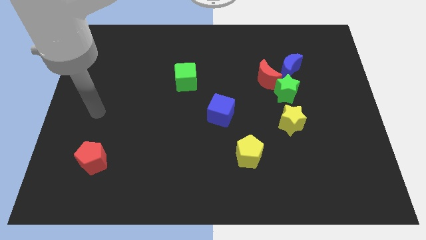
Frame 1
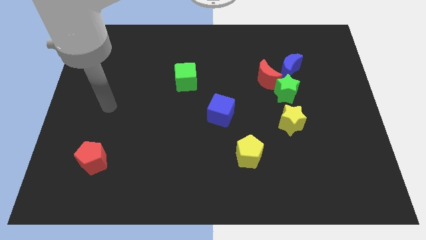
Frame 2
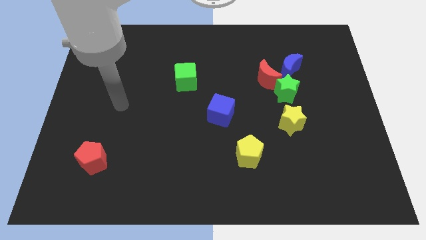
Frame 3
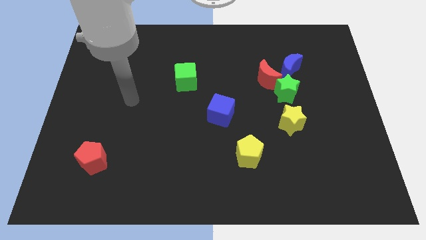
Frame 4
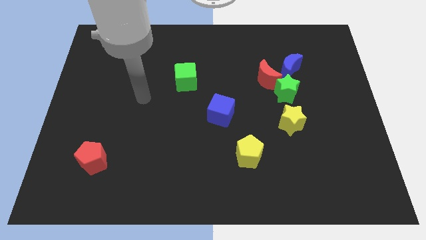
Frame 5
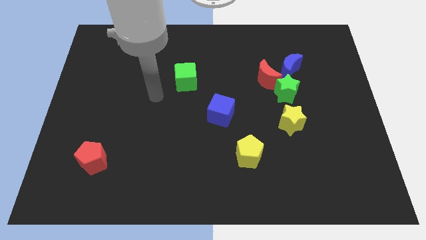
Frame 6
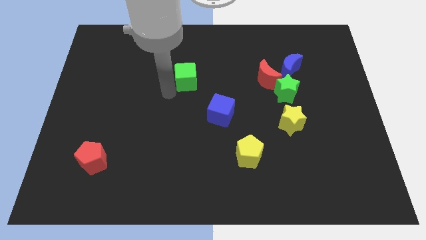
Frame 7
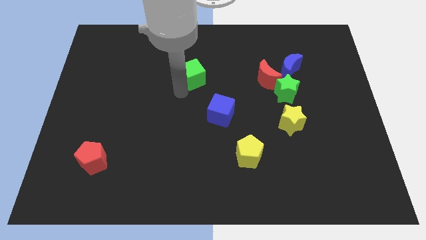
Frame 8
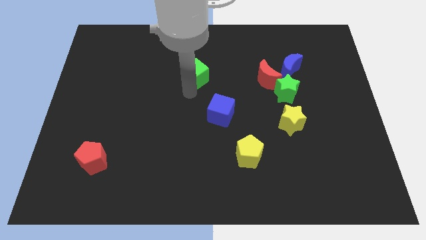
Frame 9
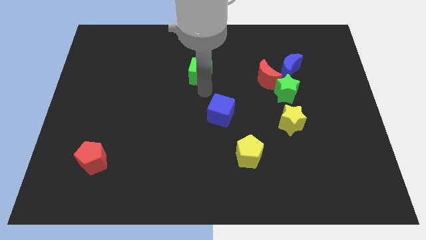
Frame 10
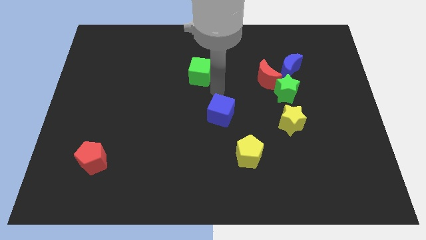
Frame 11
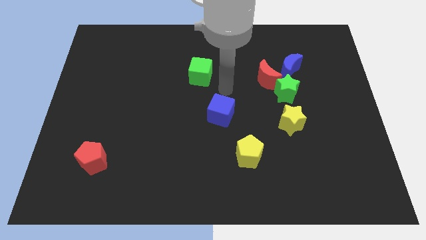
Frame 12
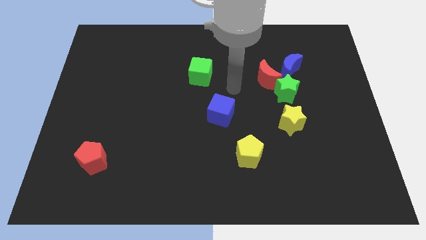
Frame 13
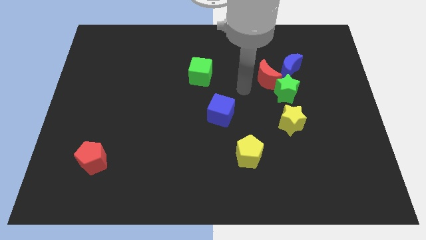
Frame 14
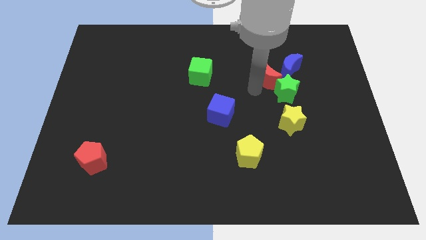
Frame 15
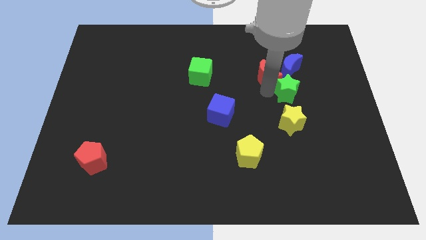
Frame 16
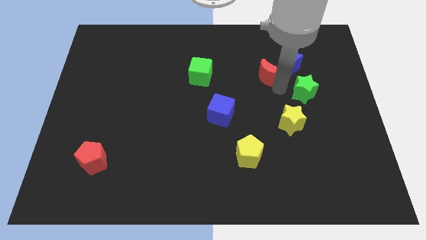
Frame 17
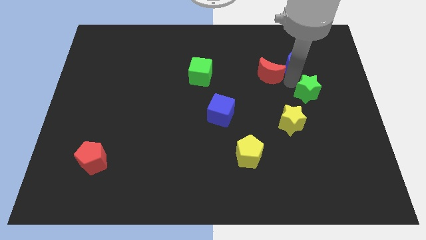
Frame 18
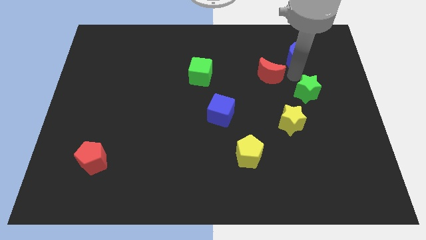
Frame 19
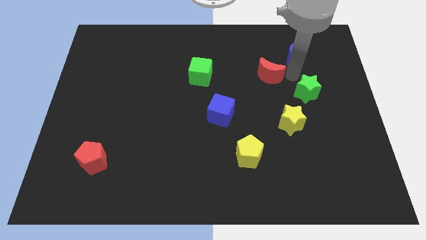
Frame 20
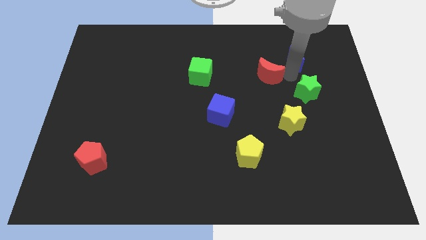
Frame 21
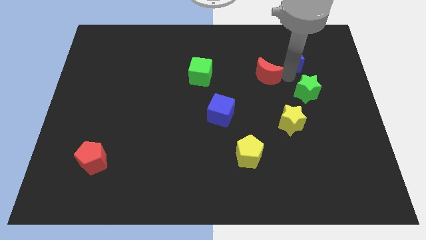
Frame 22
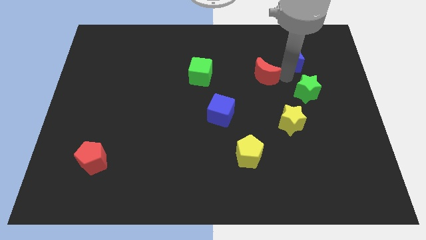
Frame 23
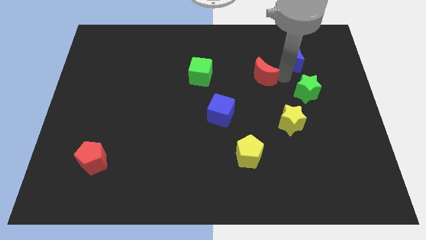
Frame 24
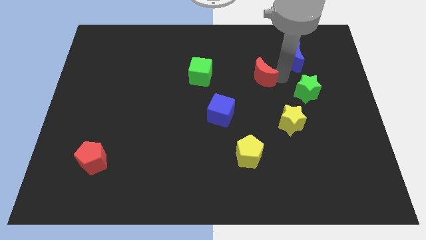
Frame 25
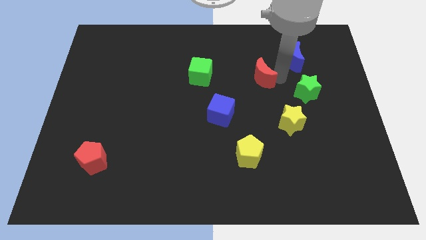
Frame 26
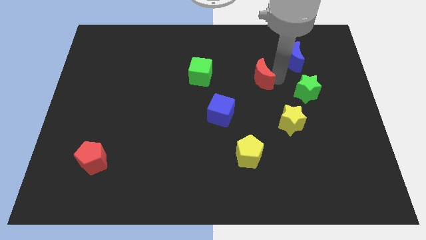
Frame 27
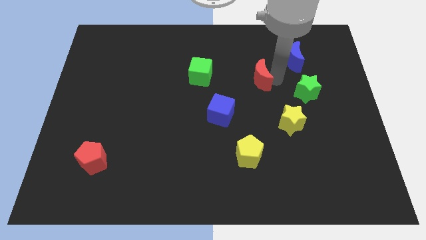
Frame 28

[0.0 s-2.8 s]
pull the red moon apart from the green star and blue moon

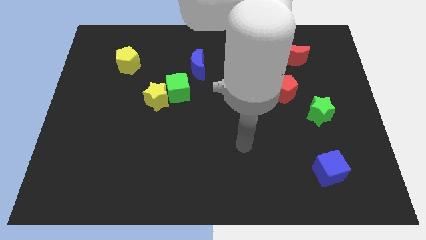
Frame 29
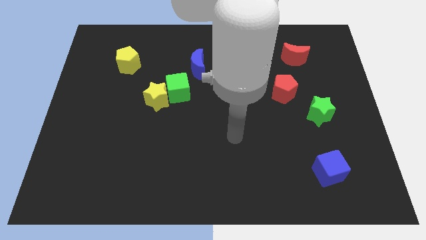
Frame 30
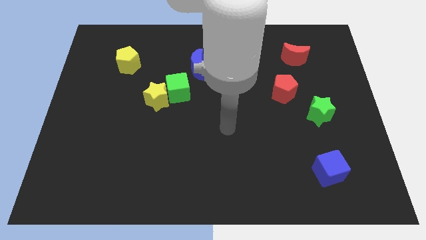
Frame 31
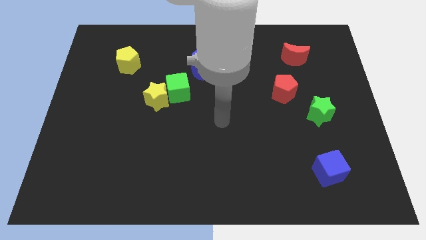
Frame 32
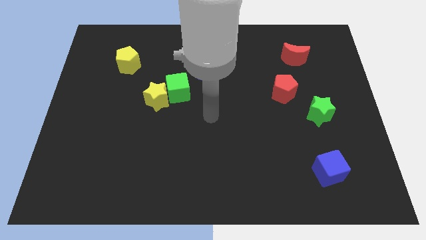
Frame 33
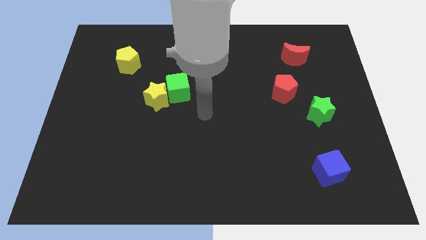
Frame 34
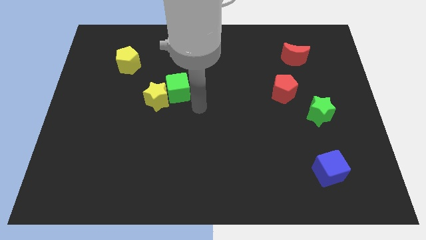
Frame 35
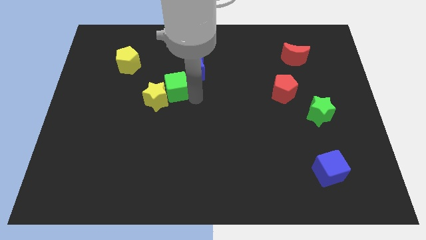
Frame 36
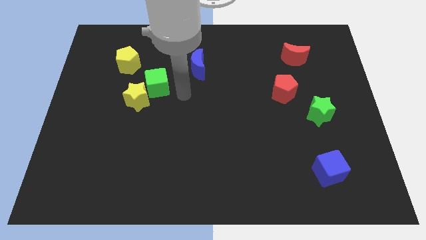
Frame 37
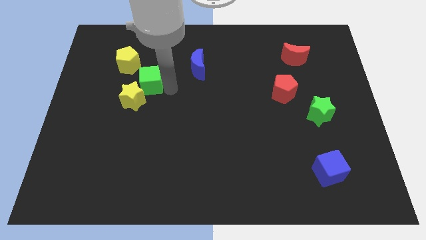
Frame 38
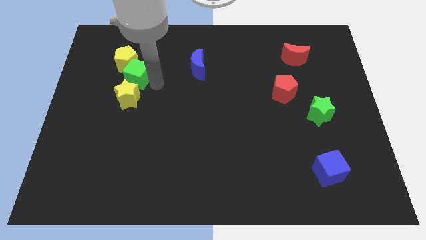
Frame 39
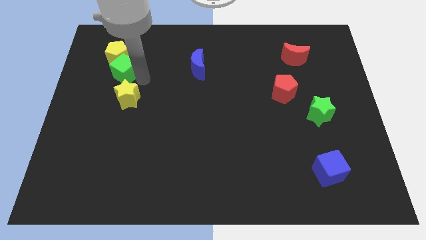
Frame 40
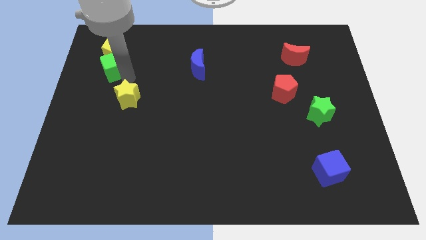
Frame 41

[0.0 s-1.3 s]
separate the yellow star from the green cube

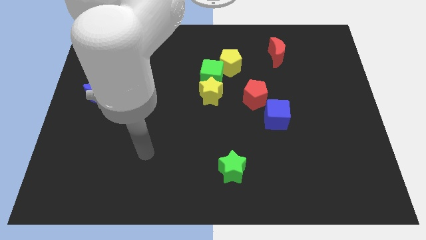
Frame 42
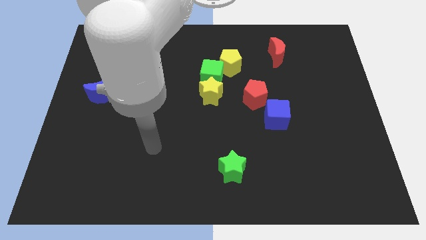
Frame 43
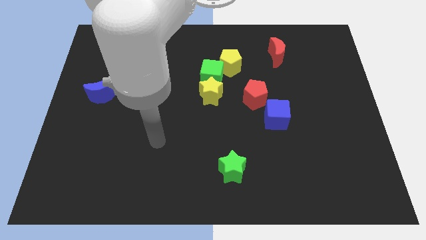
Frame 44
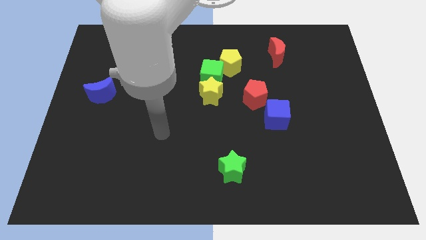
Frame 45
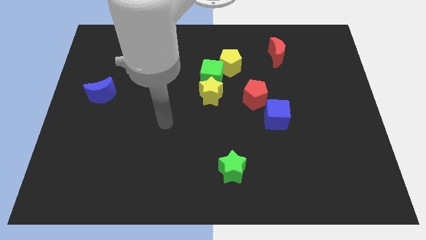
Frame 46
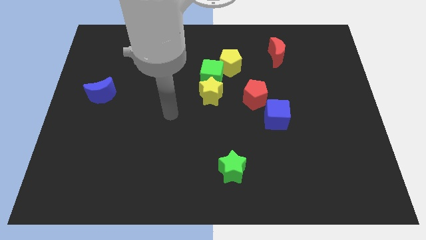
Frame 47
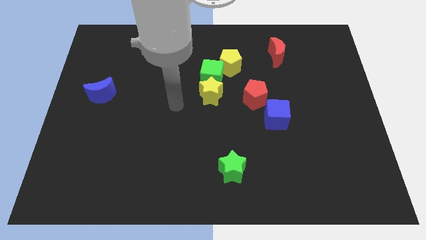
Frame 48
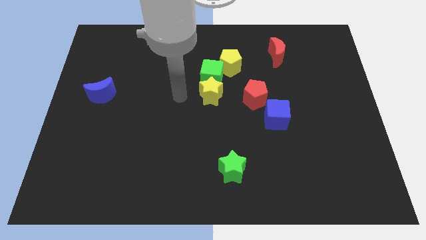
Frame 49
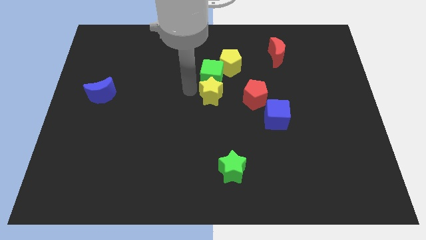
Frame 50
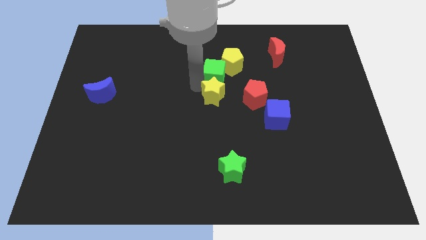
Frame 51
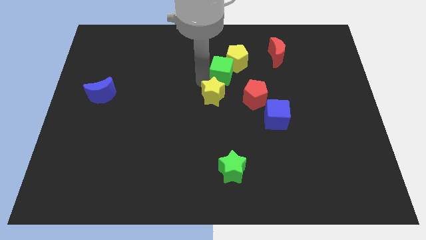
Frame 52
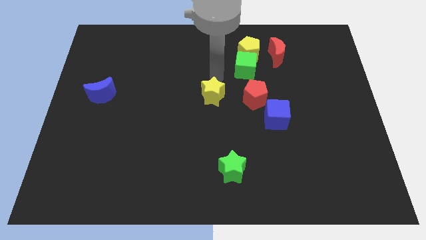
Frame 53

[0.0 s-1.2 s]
move the yellow star away from the green cube

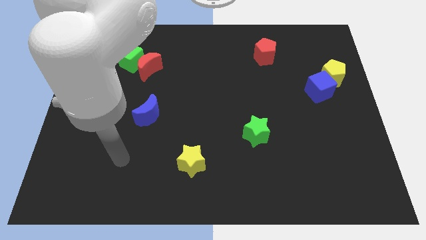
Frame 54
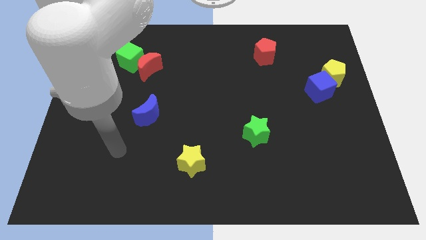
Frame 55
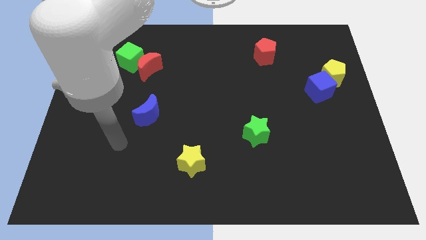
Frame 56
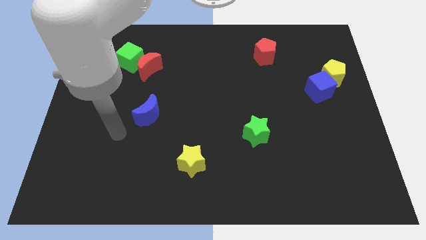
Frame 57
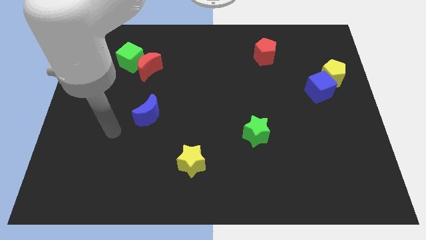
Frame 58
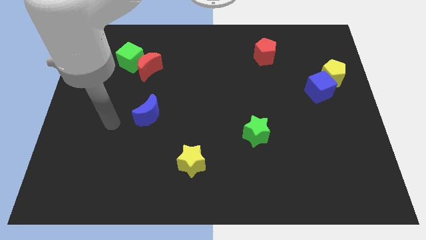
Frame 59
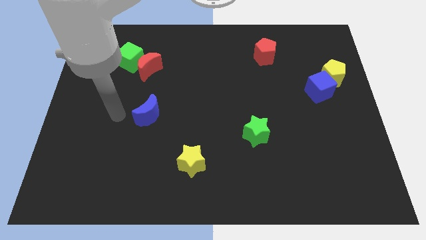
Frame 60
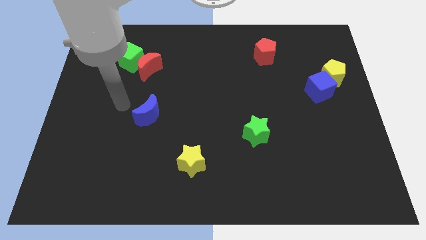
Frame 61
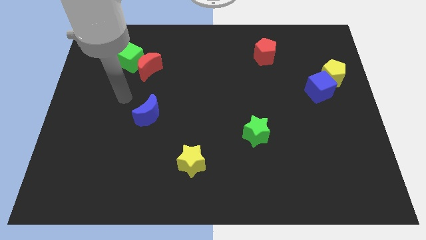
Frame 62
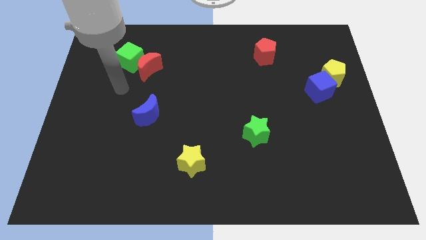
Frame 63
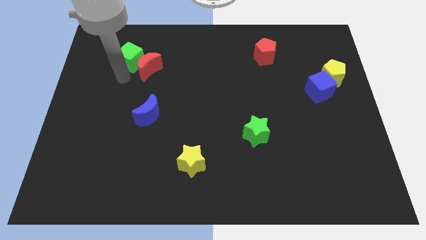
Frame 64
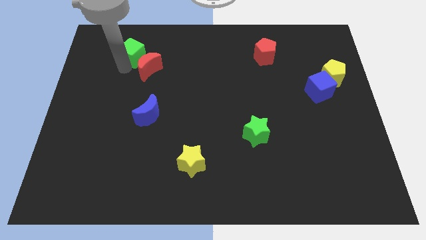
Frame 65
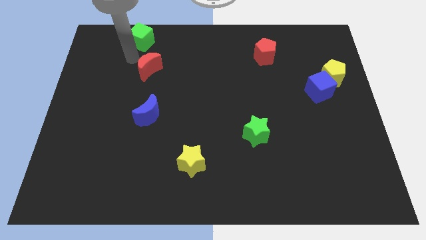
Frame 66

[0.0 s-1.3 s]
move the red moon away from the green cube

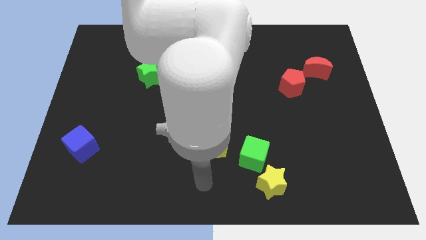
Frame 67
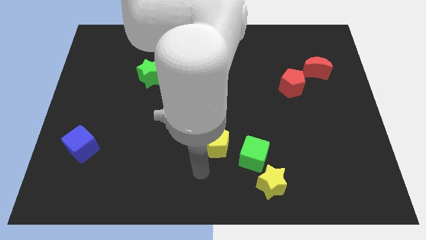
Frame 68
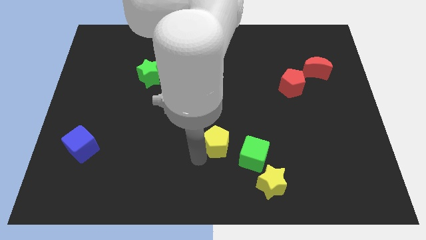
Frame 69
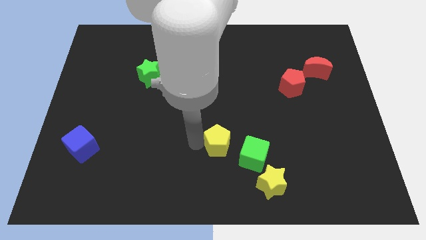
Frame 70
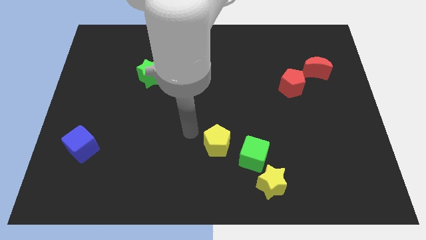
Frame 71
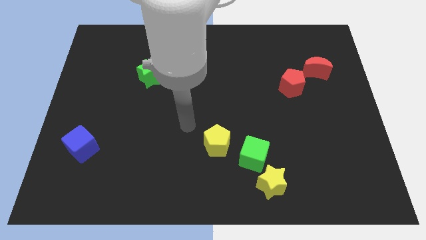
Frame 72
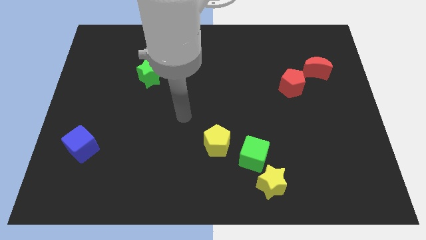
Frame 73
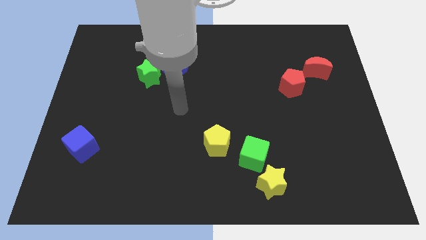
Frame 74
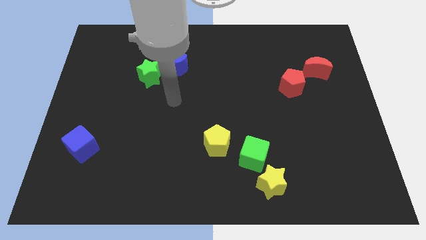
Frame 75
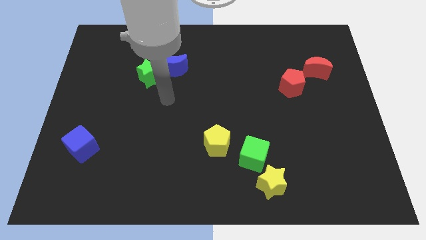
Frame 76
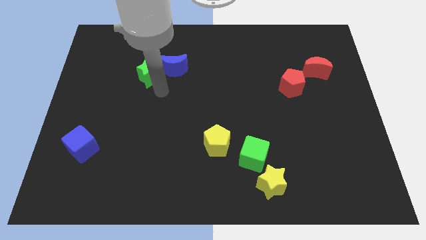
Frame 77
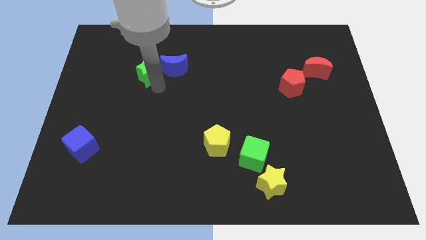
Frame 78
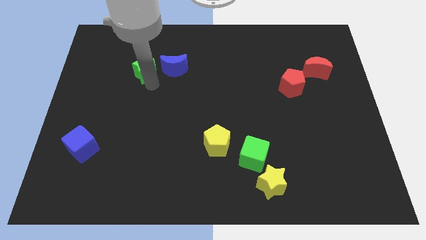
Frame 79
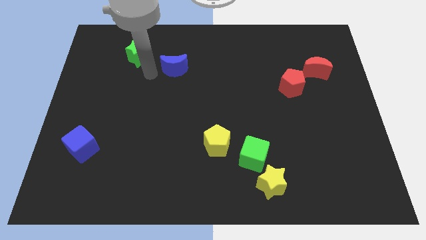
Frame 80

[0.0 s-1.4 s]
separate the blue moon from the green star

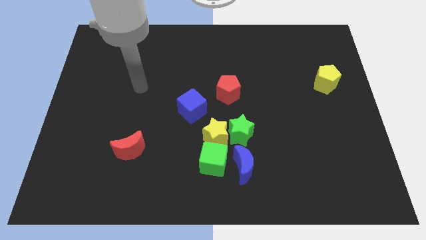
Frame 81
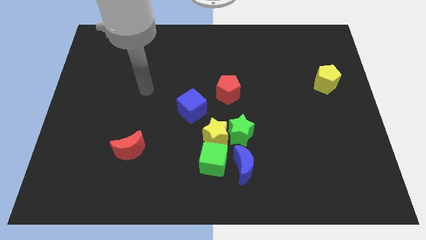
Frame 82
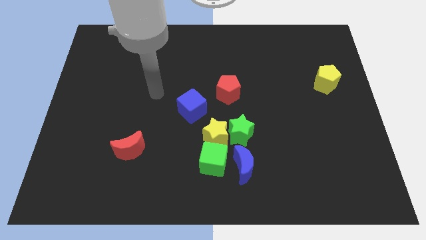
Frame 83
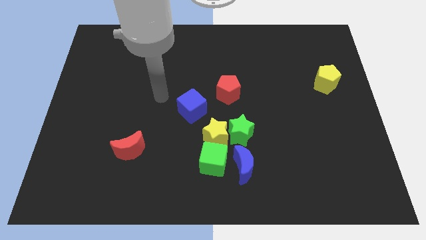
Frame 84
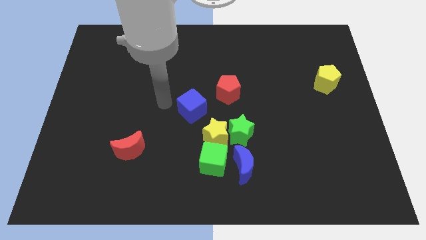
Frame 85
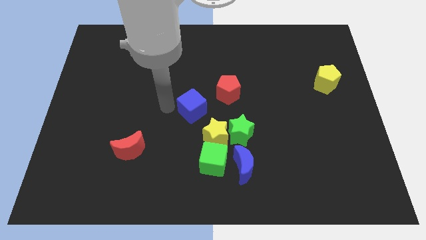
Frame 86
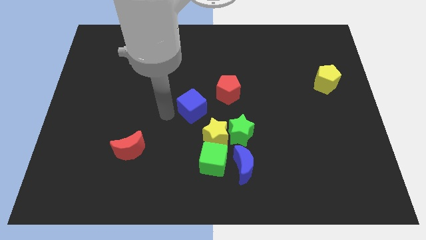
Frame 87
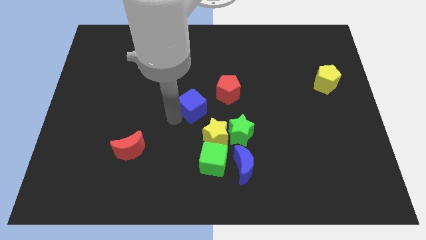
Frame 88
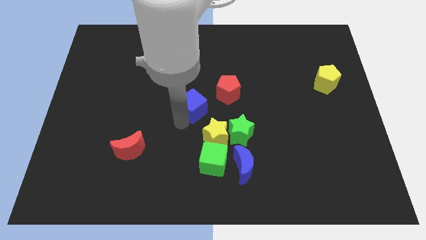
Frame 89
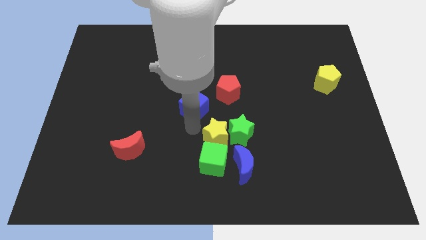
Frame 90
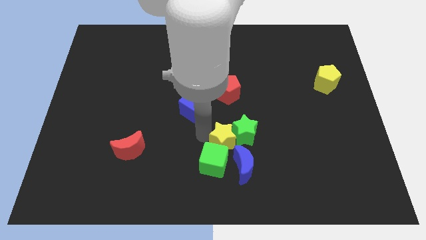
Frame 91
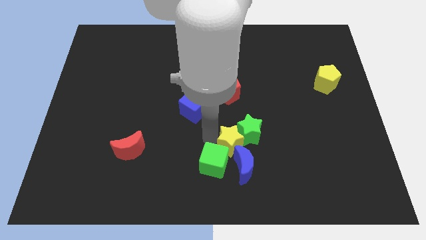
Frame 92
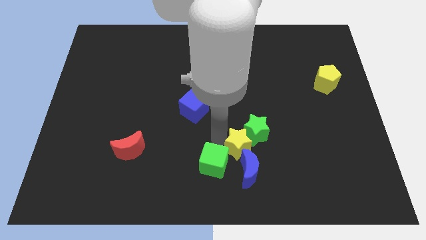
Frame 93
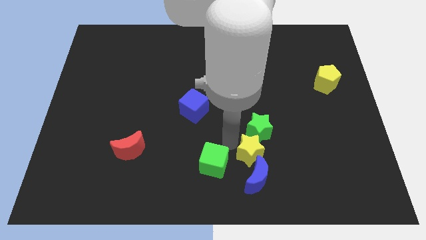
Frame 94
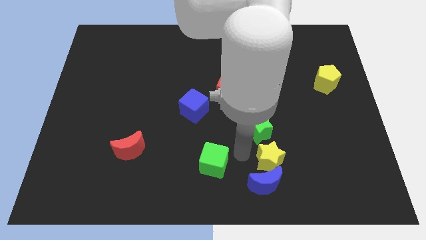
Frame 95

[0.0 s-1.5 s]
pull the green cube apart from the group
